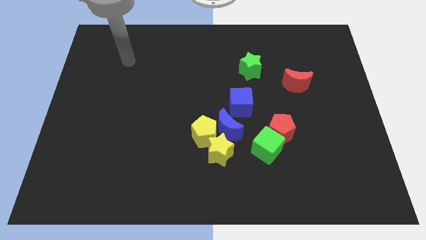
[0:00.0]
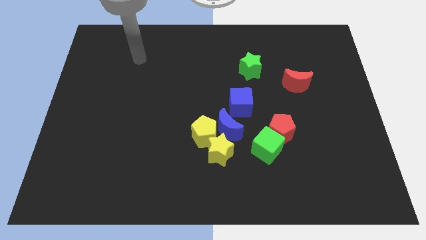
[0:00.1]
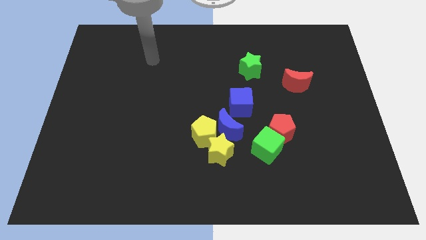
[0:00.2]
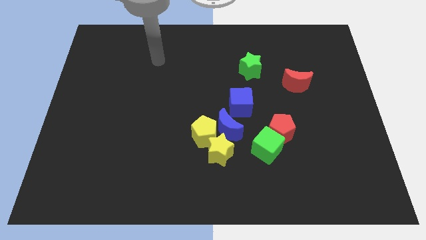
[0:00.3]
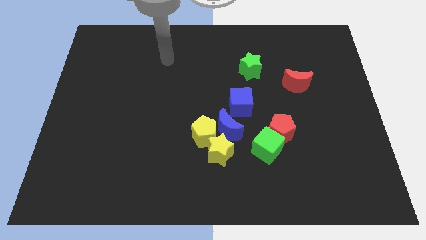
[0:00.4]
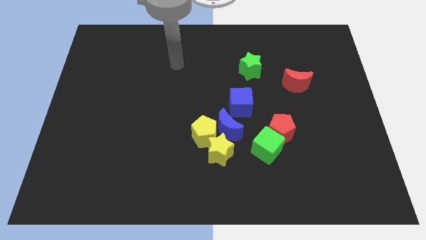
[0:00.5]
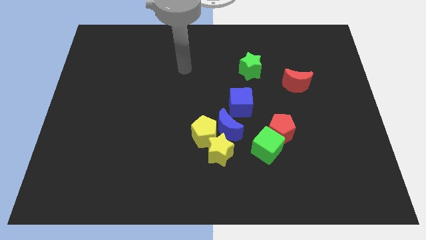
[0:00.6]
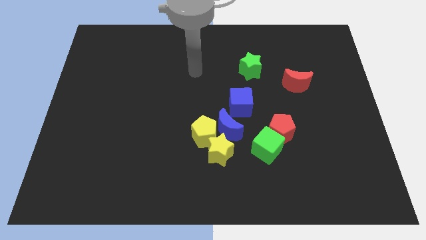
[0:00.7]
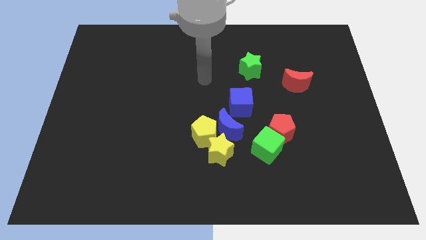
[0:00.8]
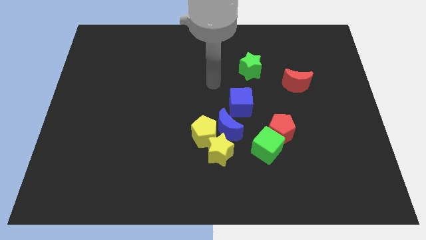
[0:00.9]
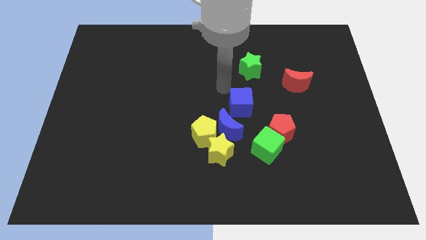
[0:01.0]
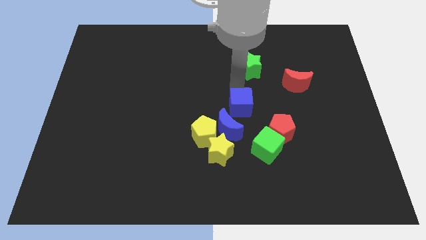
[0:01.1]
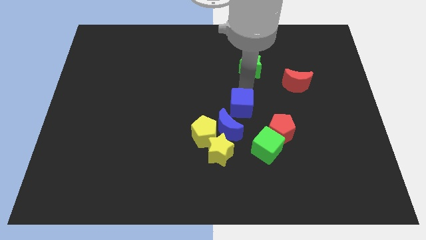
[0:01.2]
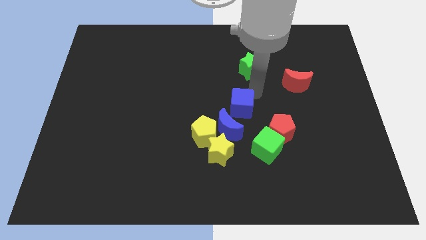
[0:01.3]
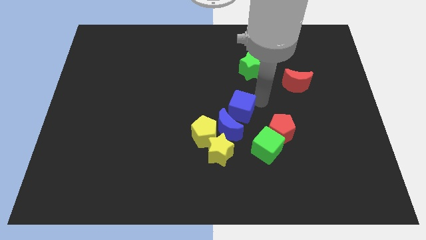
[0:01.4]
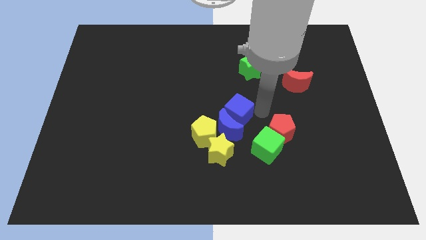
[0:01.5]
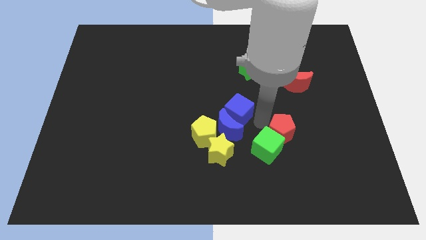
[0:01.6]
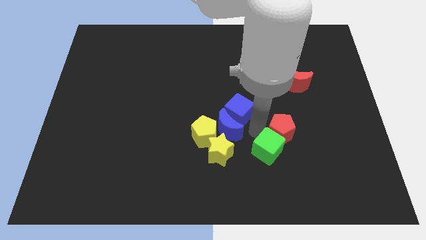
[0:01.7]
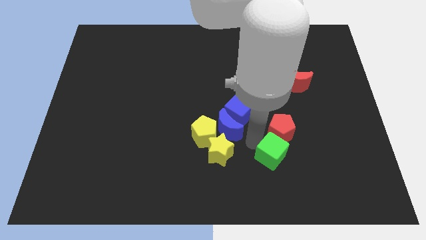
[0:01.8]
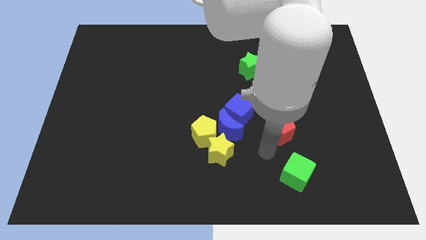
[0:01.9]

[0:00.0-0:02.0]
move the red pentagon away from the green cube

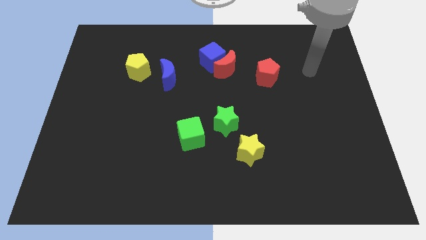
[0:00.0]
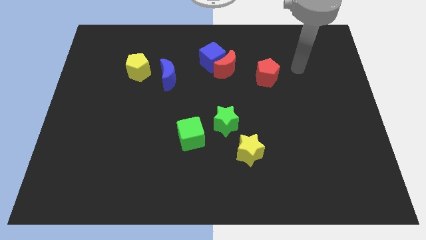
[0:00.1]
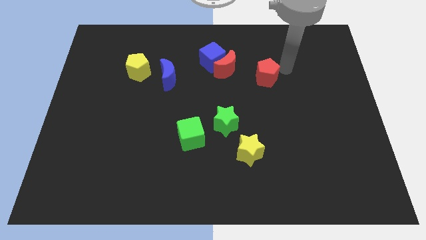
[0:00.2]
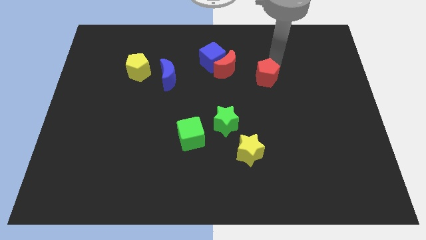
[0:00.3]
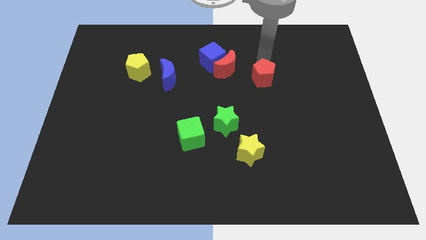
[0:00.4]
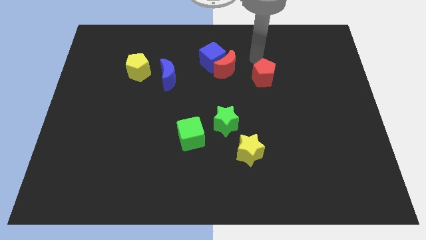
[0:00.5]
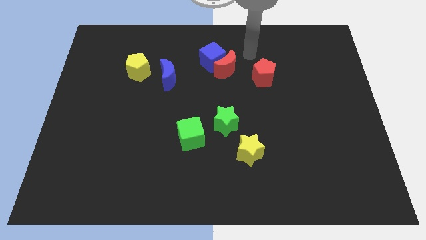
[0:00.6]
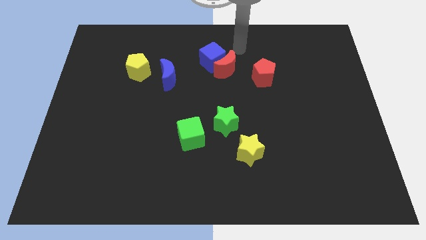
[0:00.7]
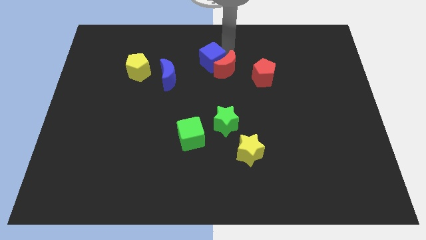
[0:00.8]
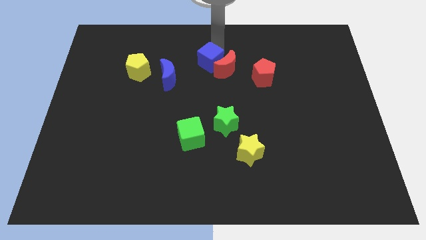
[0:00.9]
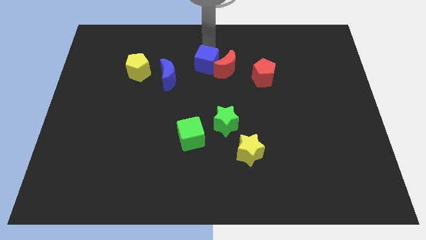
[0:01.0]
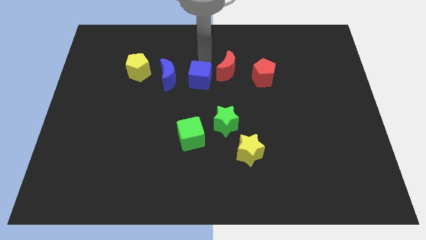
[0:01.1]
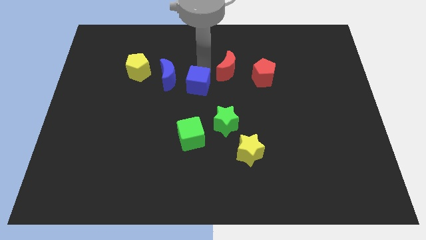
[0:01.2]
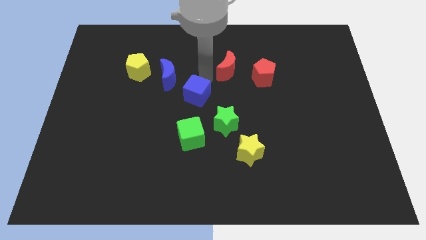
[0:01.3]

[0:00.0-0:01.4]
move the red moon away from the blue cube

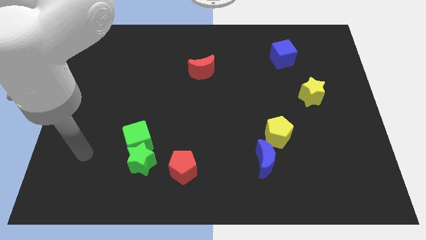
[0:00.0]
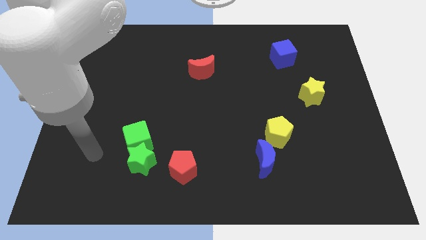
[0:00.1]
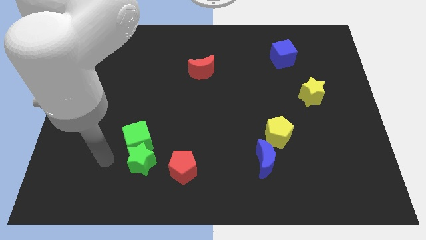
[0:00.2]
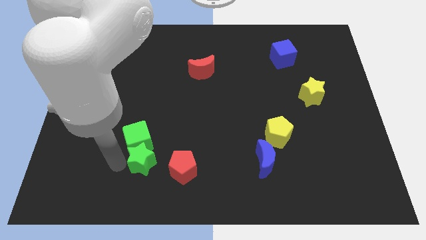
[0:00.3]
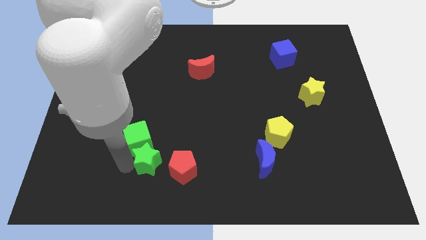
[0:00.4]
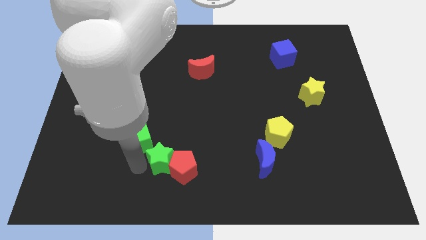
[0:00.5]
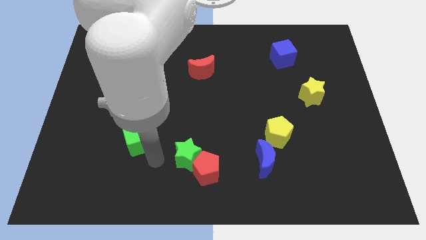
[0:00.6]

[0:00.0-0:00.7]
move the green cube away from the green star

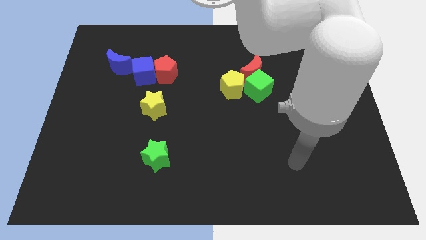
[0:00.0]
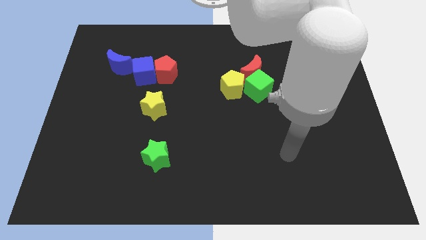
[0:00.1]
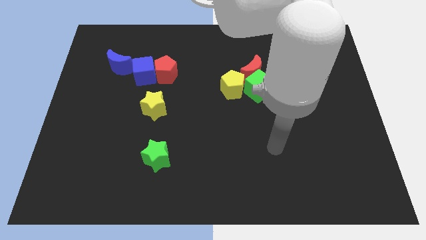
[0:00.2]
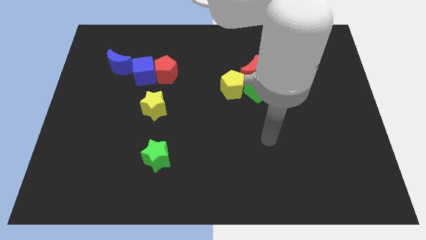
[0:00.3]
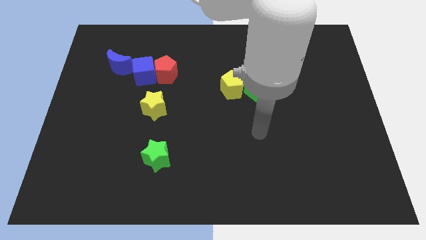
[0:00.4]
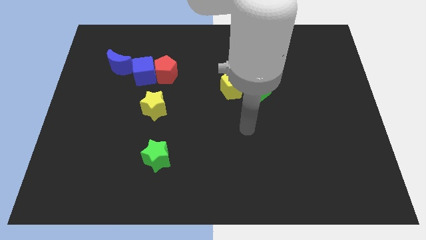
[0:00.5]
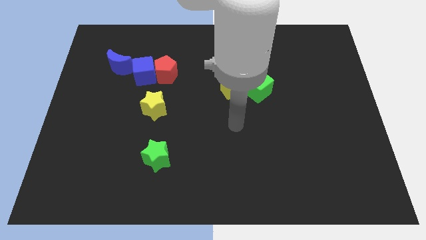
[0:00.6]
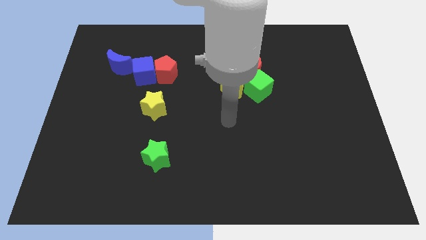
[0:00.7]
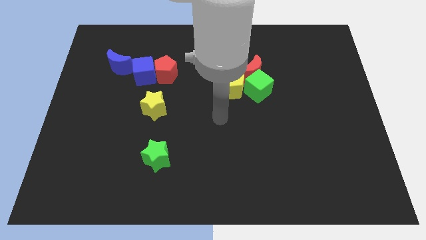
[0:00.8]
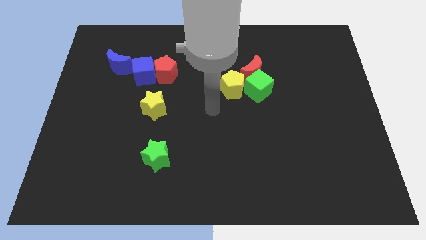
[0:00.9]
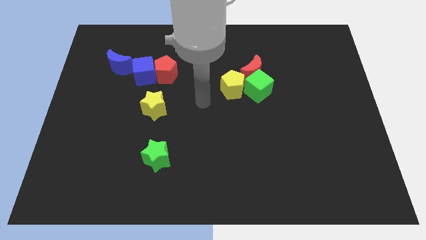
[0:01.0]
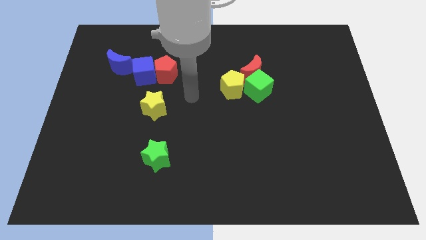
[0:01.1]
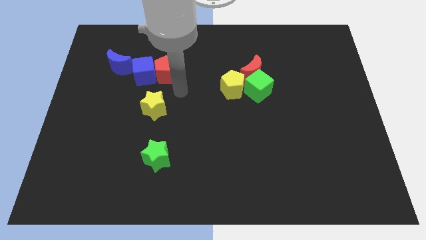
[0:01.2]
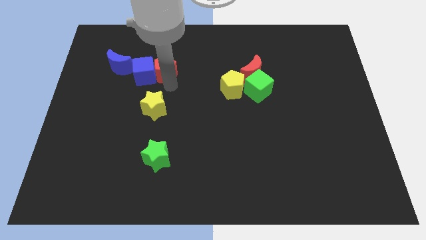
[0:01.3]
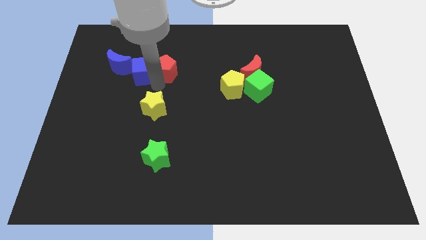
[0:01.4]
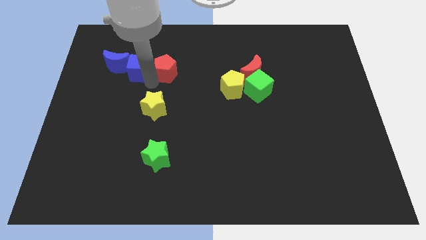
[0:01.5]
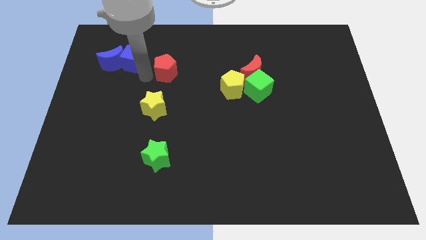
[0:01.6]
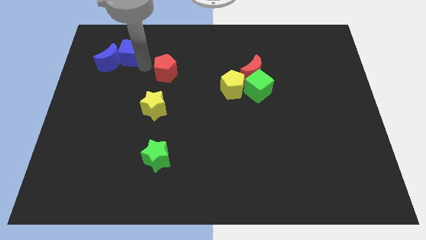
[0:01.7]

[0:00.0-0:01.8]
separate the red pentagon from the blue cube

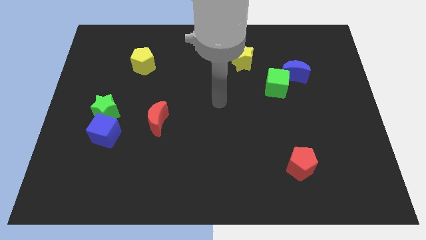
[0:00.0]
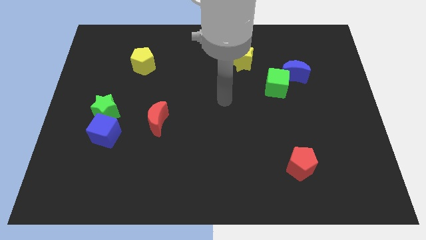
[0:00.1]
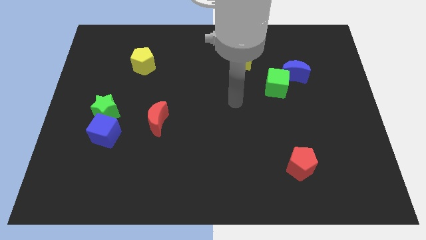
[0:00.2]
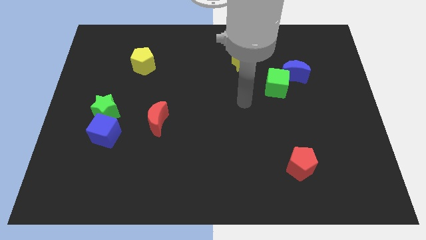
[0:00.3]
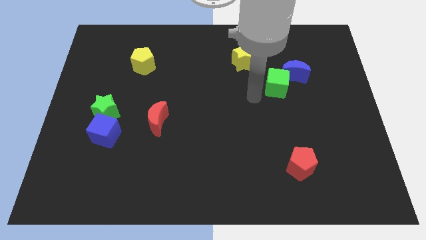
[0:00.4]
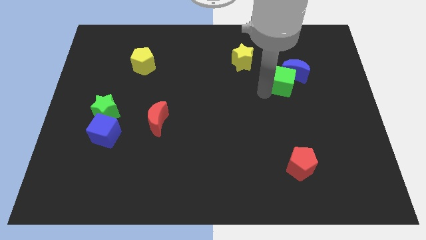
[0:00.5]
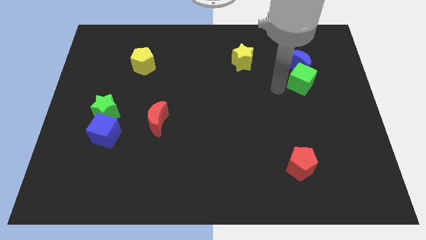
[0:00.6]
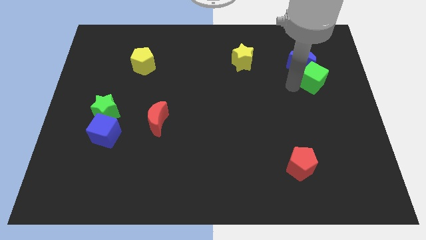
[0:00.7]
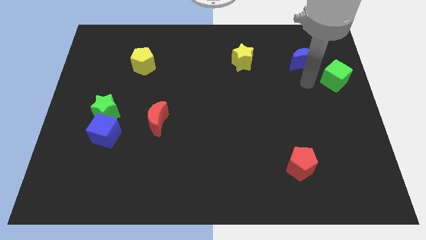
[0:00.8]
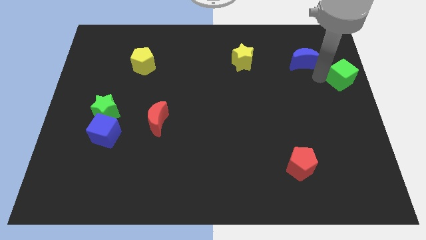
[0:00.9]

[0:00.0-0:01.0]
pull the blue moon apart from the green cube

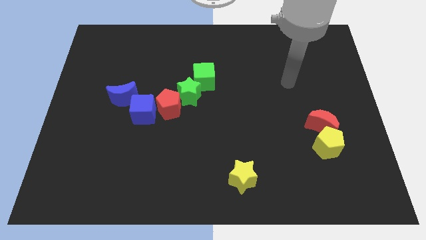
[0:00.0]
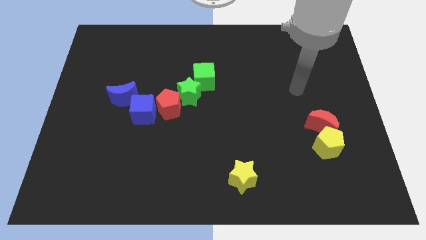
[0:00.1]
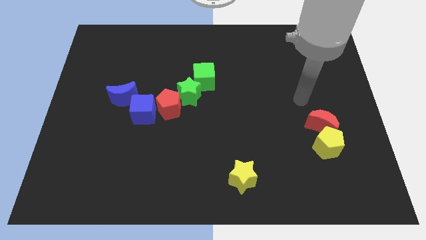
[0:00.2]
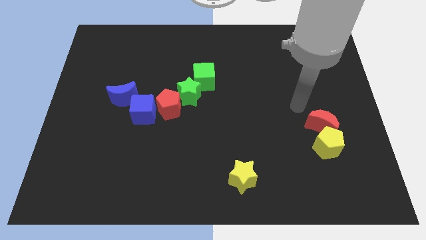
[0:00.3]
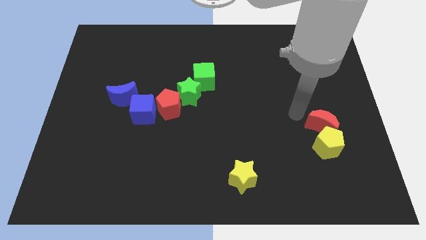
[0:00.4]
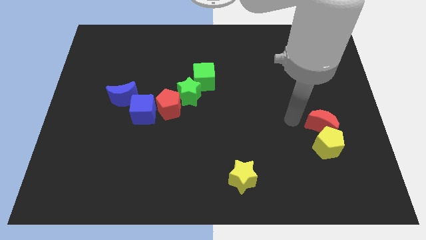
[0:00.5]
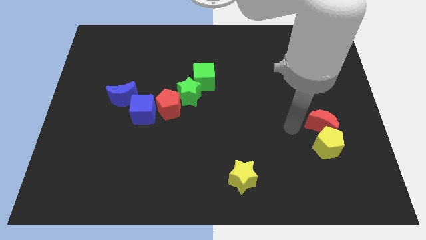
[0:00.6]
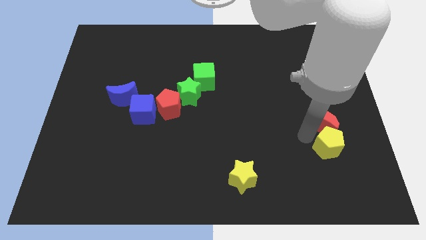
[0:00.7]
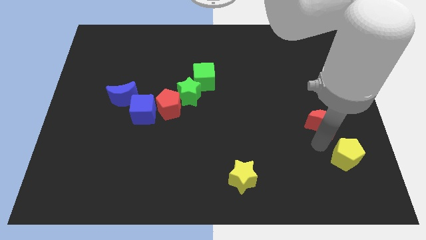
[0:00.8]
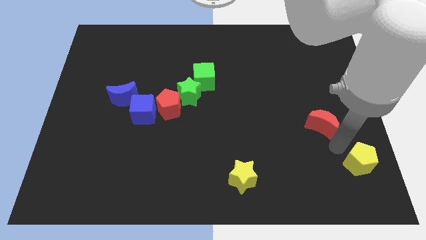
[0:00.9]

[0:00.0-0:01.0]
separate the red moon from the yellow pentagon

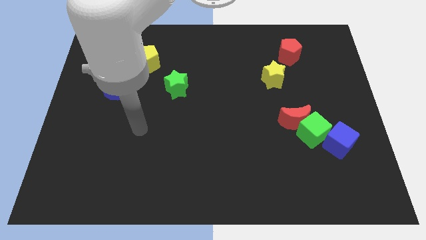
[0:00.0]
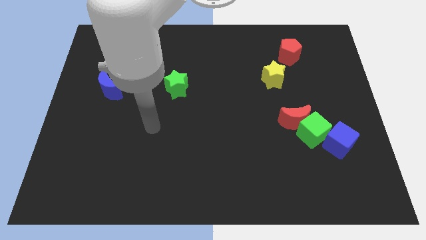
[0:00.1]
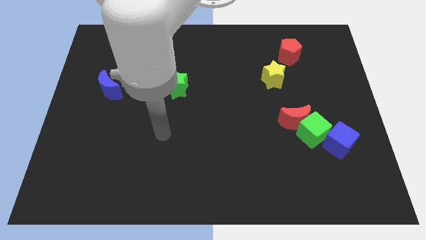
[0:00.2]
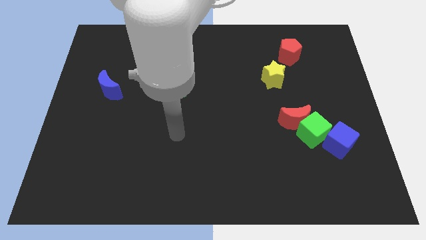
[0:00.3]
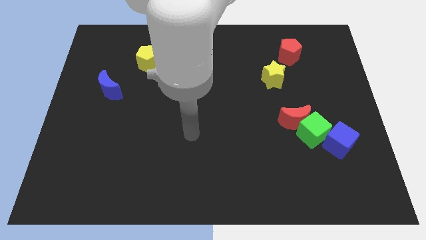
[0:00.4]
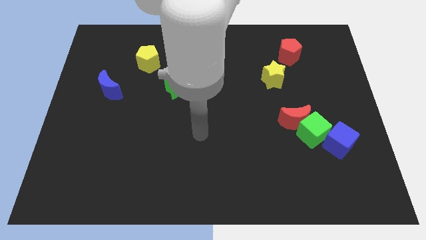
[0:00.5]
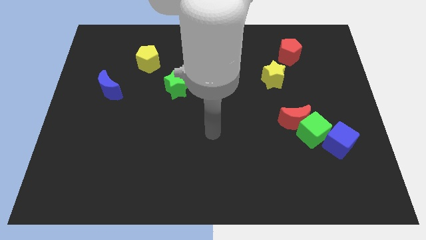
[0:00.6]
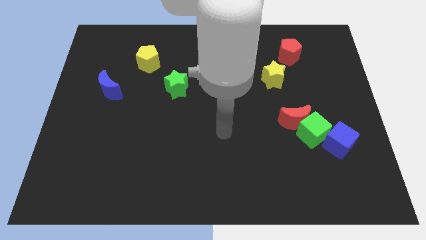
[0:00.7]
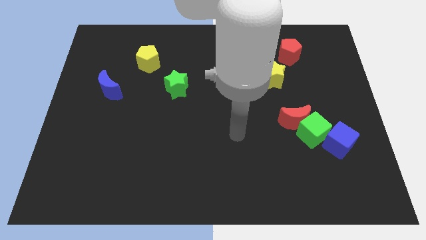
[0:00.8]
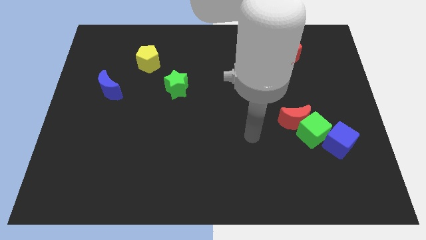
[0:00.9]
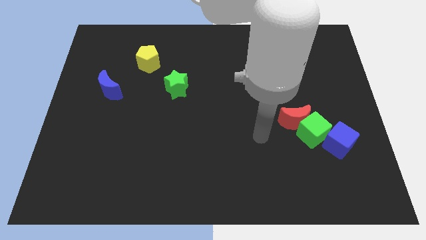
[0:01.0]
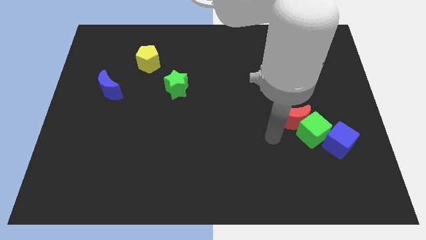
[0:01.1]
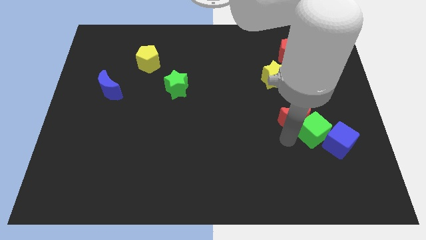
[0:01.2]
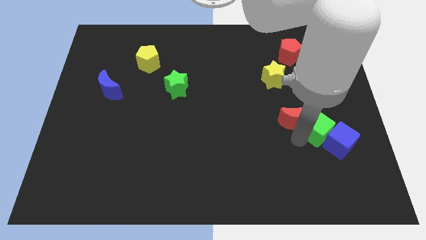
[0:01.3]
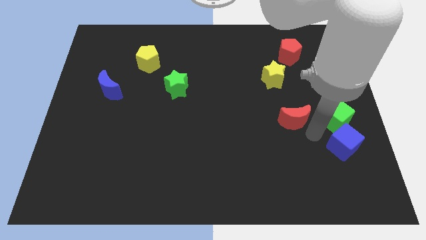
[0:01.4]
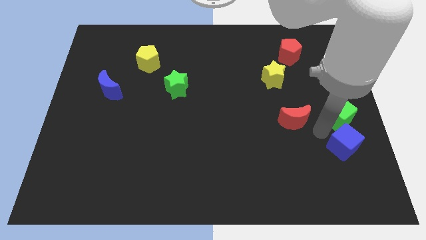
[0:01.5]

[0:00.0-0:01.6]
pull the red moon apart from the green cube
